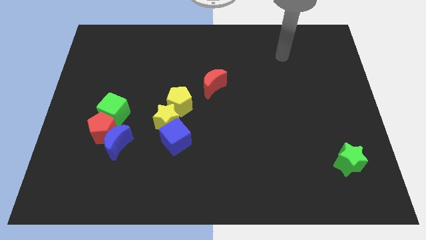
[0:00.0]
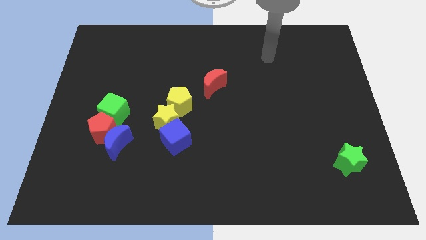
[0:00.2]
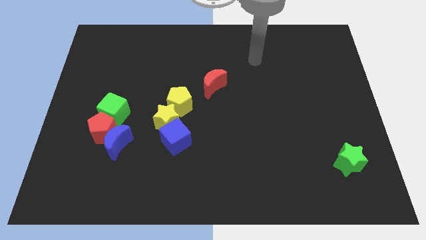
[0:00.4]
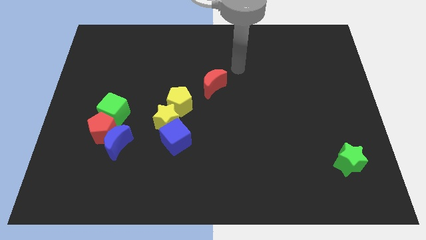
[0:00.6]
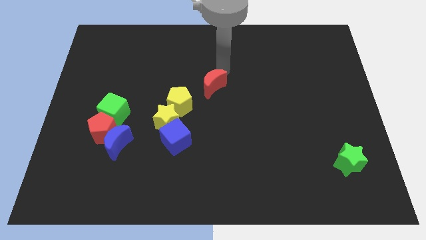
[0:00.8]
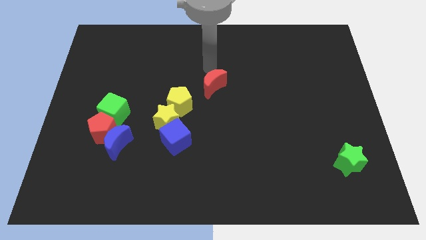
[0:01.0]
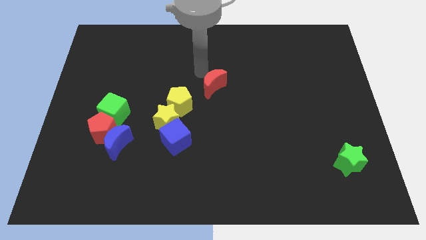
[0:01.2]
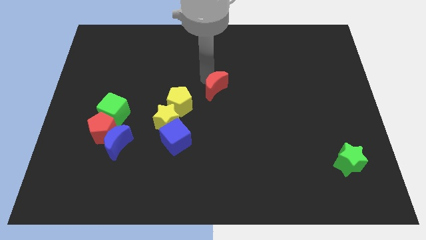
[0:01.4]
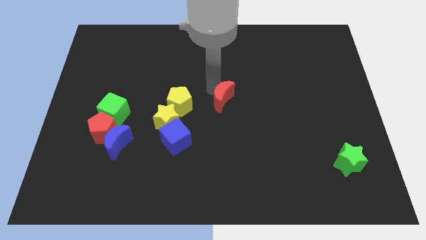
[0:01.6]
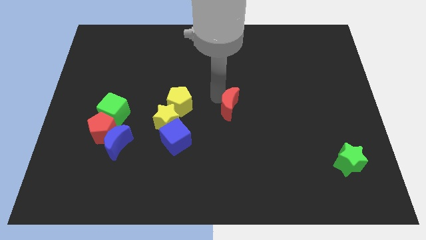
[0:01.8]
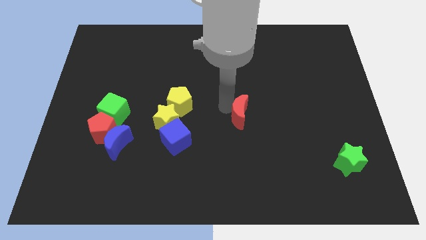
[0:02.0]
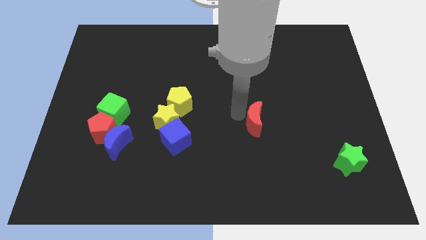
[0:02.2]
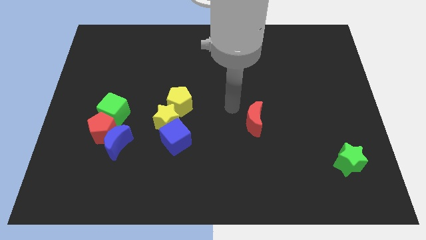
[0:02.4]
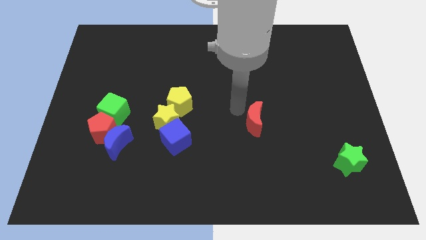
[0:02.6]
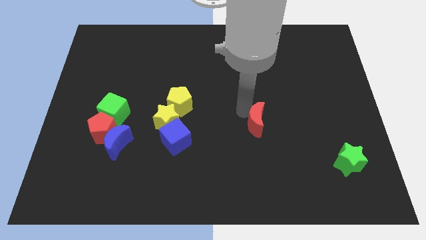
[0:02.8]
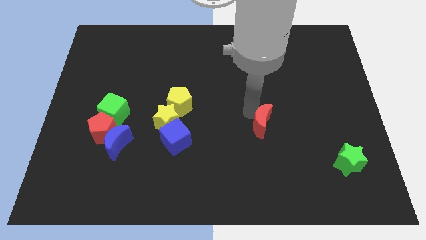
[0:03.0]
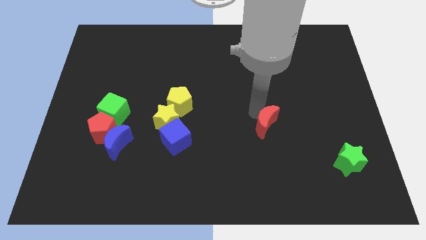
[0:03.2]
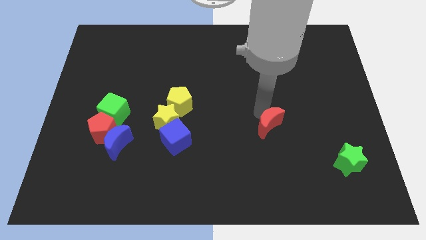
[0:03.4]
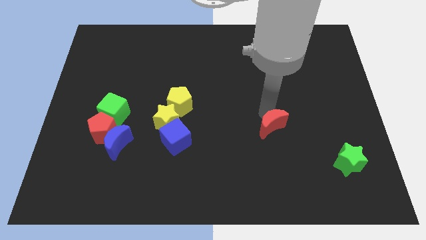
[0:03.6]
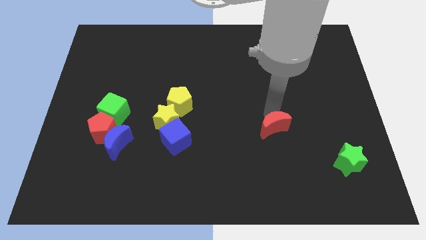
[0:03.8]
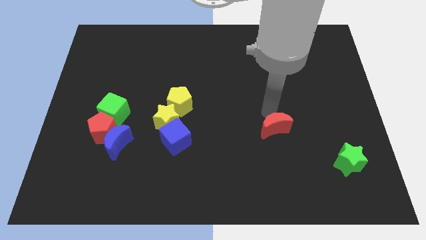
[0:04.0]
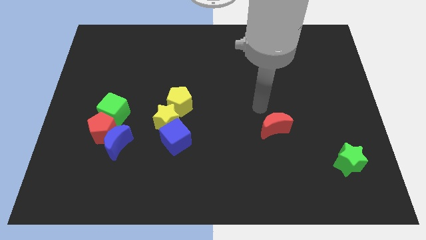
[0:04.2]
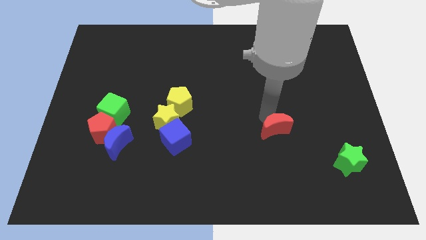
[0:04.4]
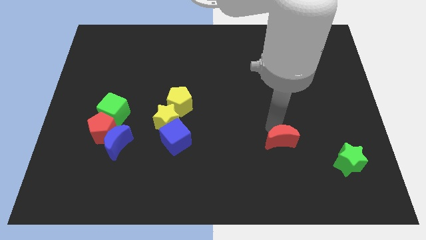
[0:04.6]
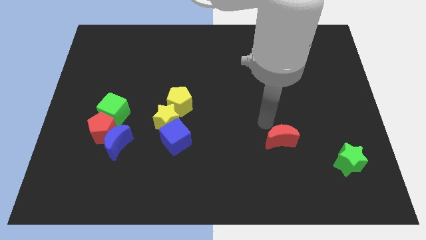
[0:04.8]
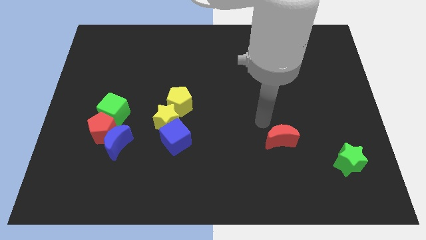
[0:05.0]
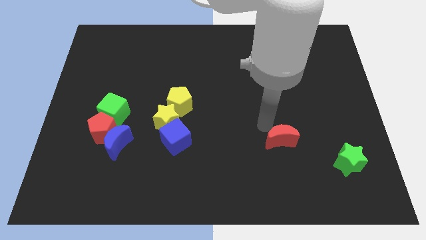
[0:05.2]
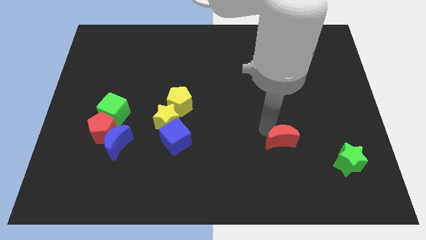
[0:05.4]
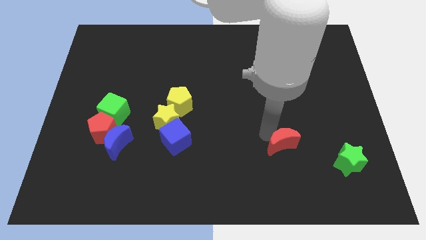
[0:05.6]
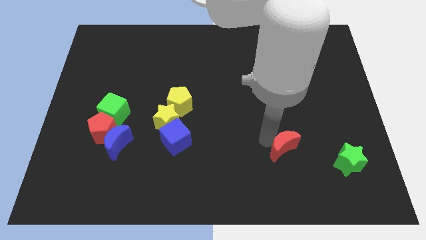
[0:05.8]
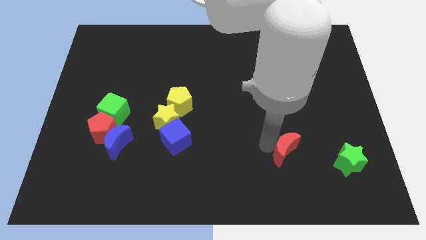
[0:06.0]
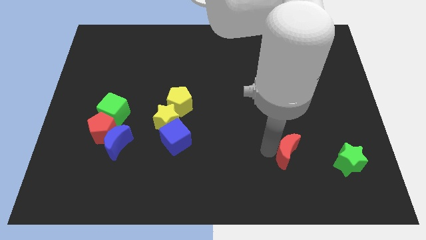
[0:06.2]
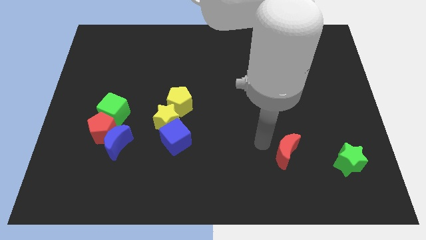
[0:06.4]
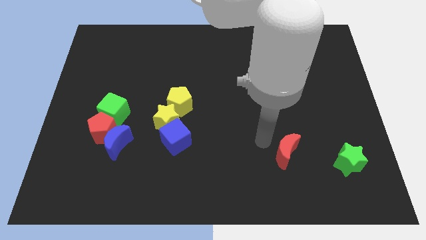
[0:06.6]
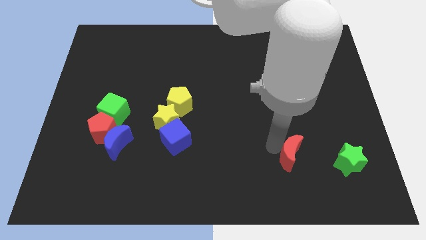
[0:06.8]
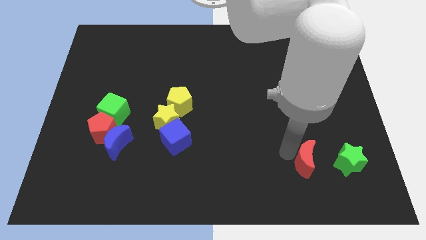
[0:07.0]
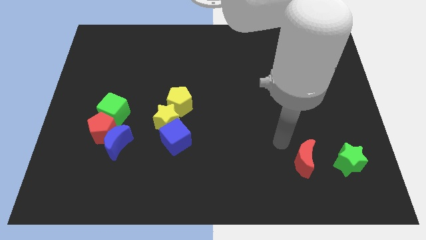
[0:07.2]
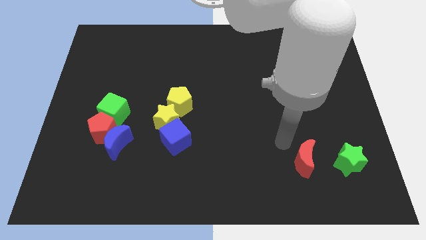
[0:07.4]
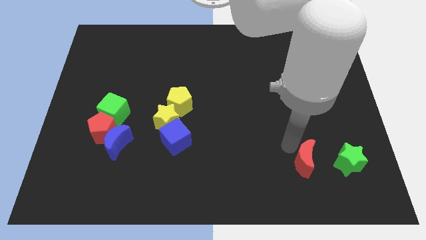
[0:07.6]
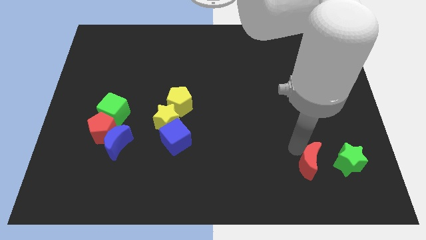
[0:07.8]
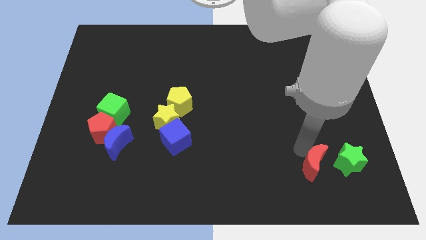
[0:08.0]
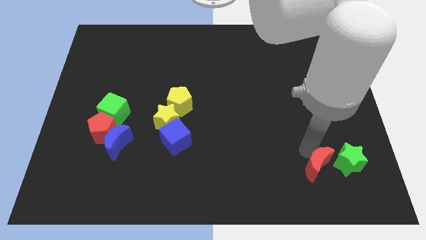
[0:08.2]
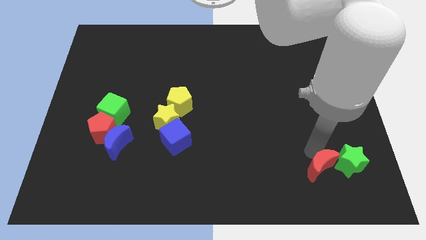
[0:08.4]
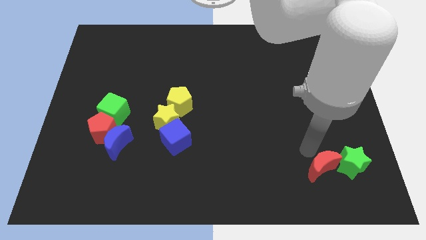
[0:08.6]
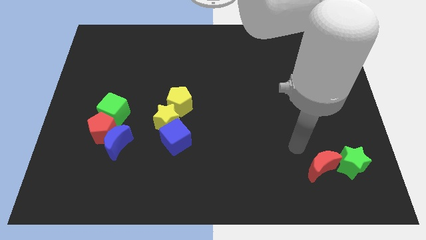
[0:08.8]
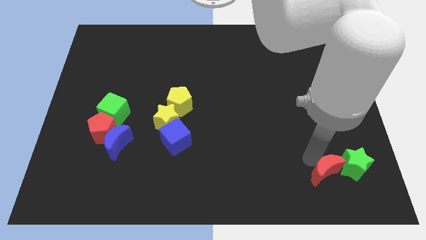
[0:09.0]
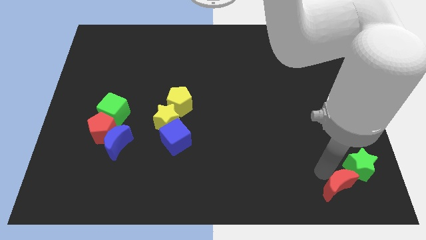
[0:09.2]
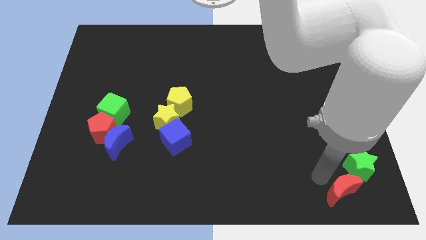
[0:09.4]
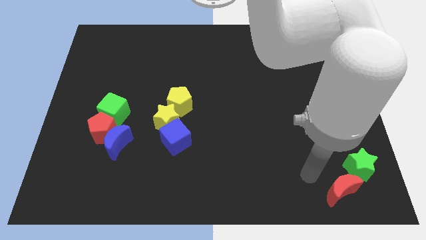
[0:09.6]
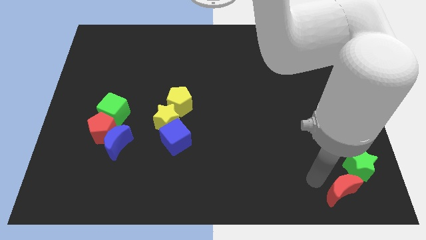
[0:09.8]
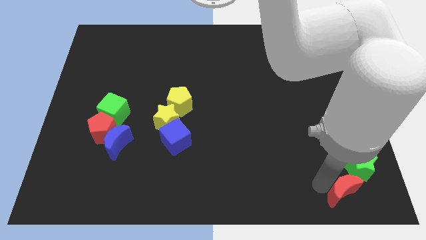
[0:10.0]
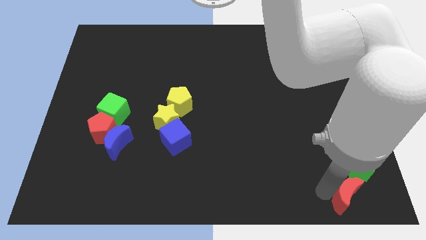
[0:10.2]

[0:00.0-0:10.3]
put the red moon to the bottom right

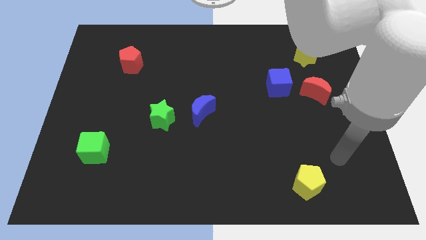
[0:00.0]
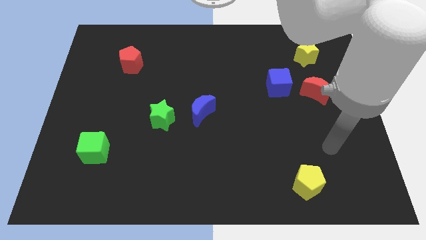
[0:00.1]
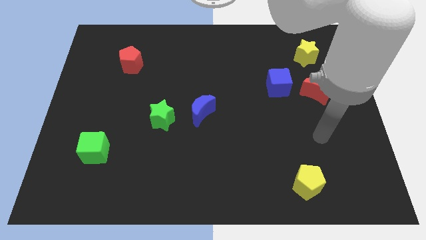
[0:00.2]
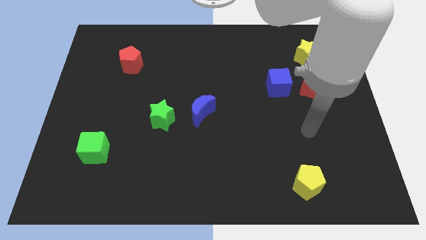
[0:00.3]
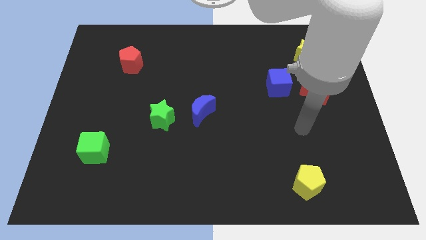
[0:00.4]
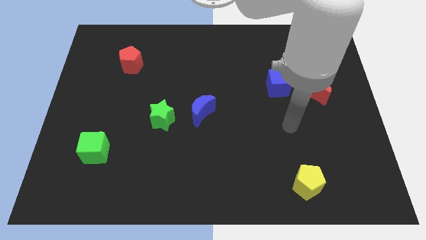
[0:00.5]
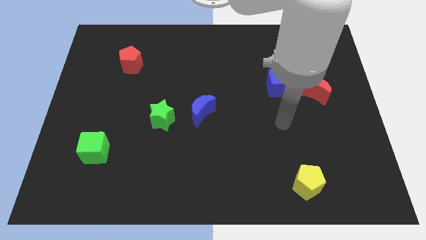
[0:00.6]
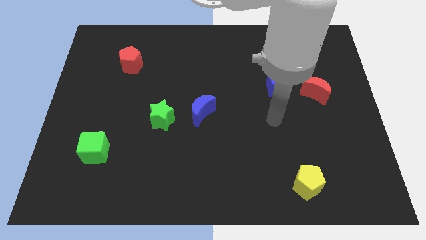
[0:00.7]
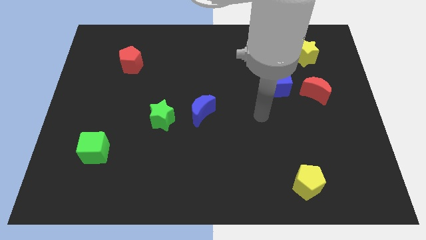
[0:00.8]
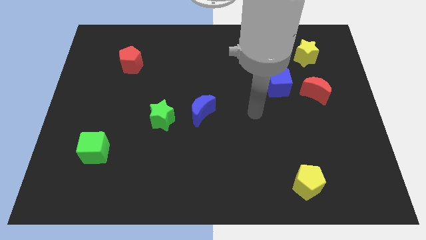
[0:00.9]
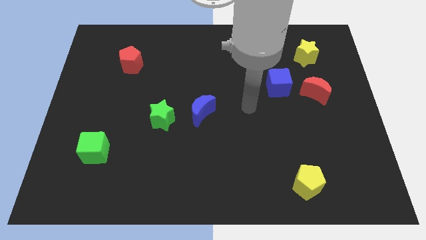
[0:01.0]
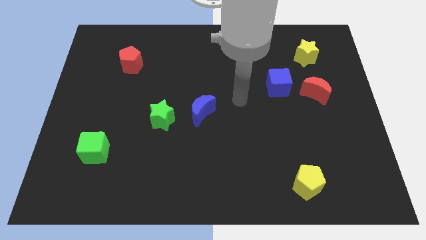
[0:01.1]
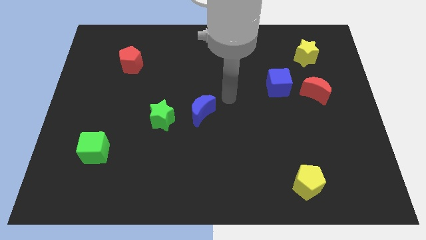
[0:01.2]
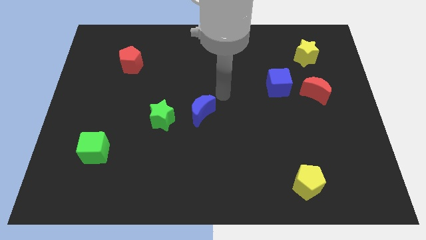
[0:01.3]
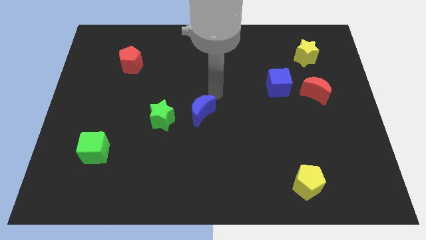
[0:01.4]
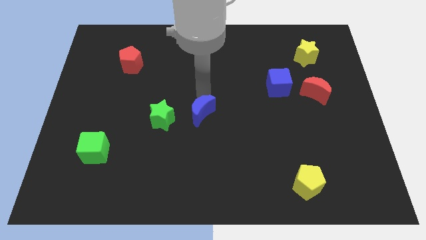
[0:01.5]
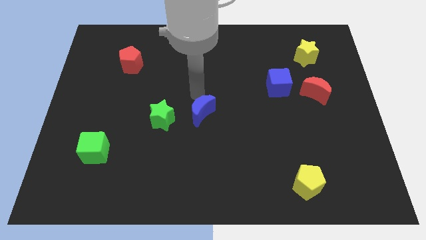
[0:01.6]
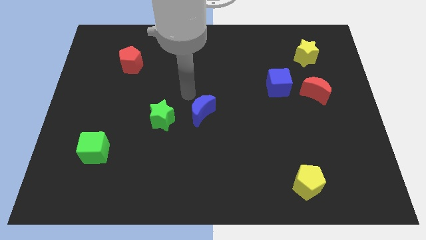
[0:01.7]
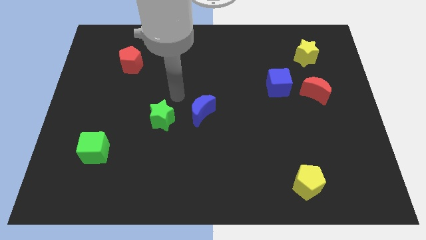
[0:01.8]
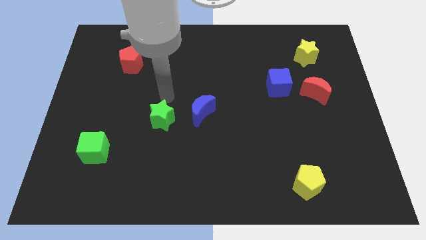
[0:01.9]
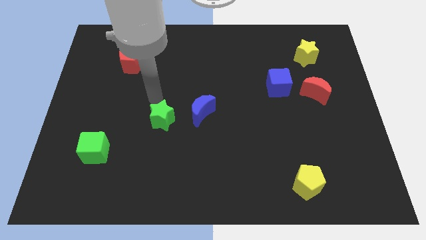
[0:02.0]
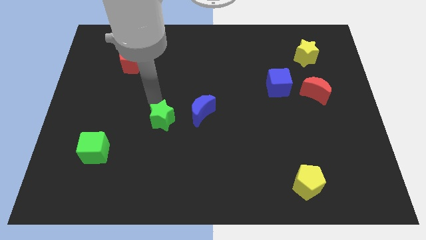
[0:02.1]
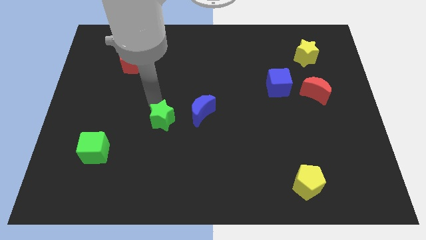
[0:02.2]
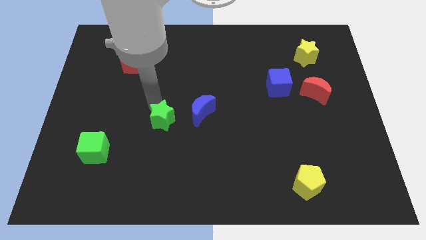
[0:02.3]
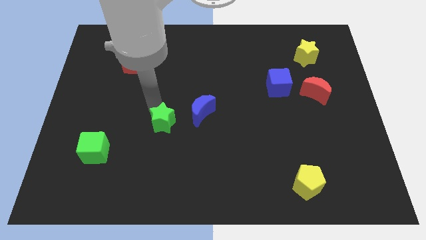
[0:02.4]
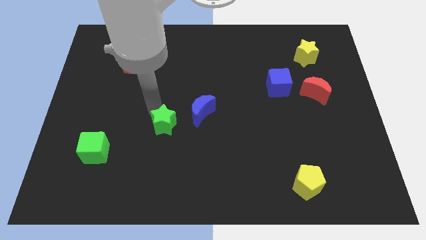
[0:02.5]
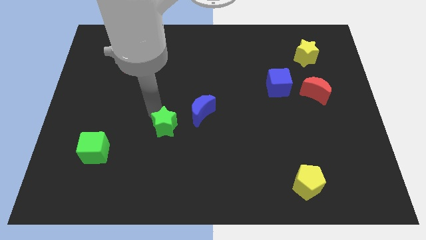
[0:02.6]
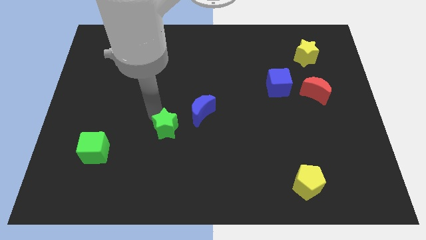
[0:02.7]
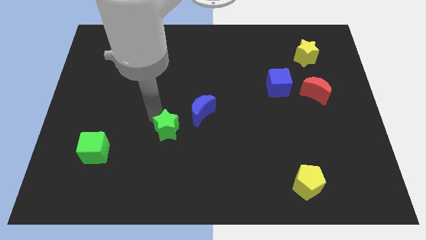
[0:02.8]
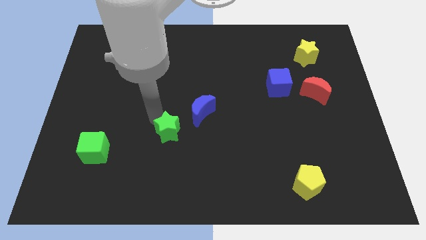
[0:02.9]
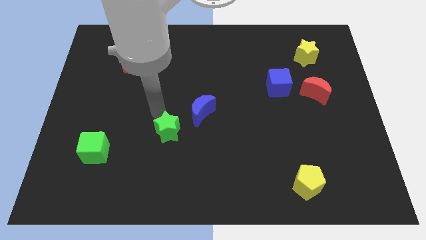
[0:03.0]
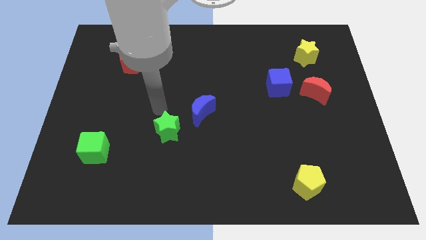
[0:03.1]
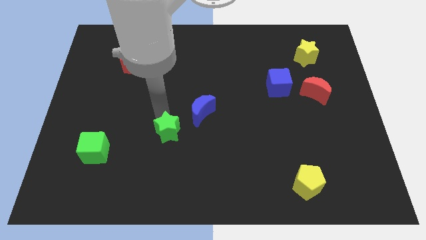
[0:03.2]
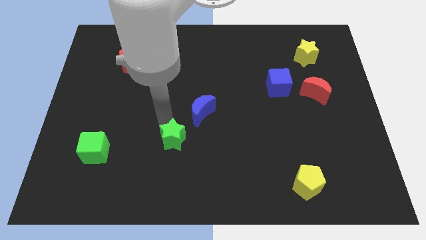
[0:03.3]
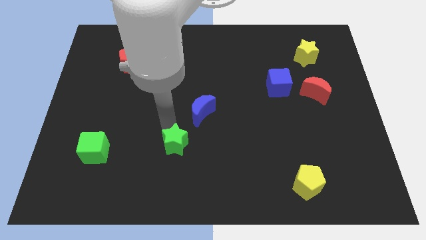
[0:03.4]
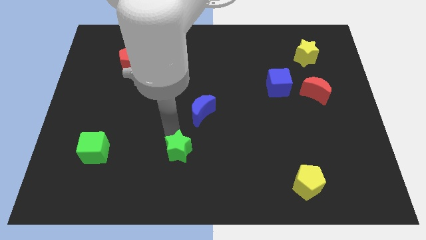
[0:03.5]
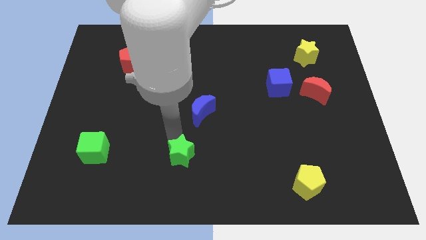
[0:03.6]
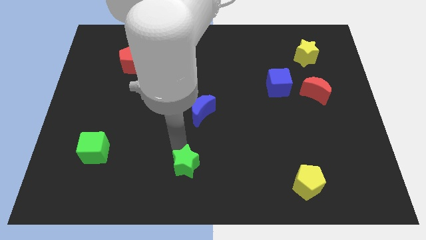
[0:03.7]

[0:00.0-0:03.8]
slide the green star to the bottom side
